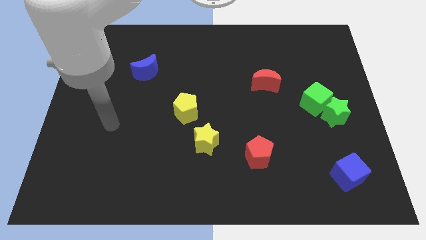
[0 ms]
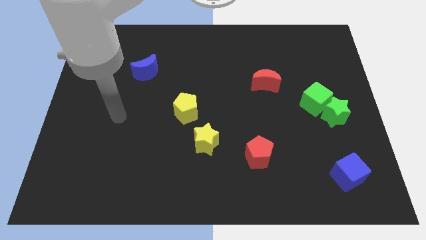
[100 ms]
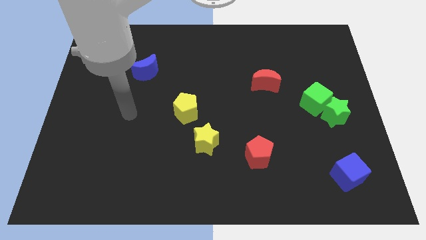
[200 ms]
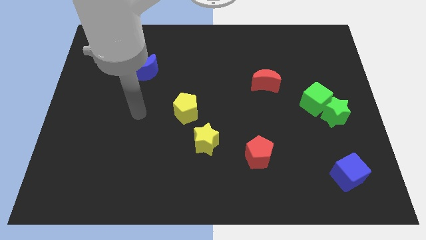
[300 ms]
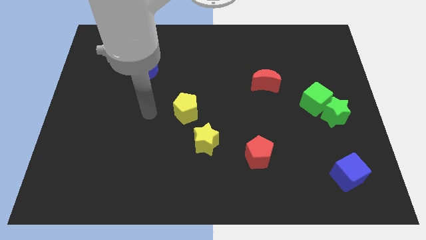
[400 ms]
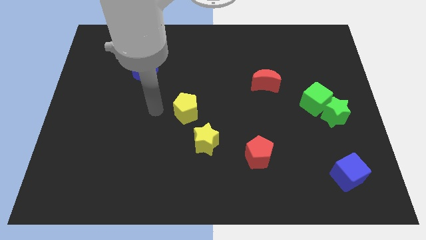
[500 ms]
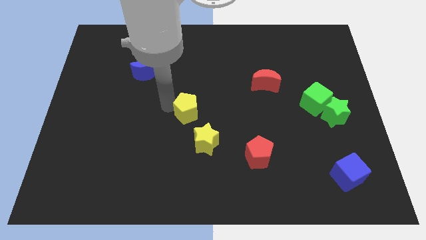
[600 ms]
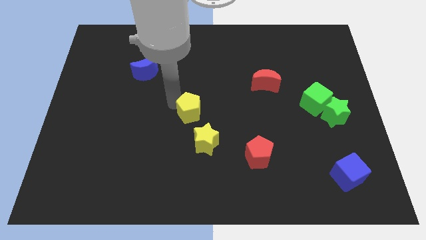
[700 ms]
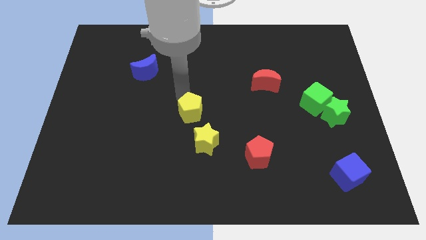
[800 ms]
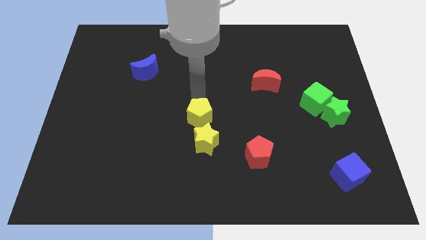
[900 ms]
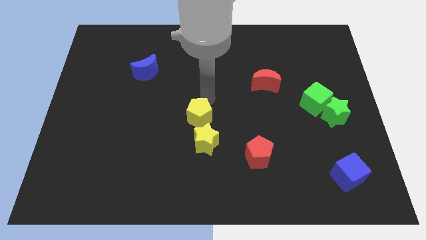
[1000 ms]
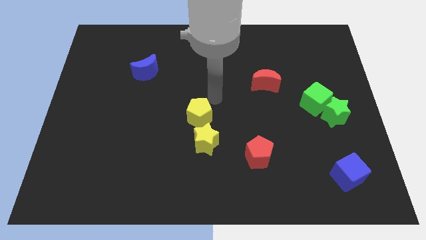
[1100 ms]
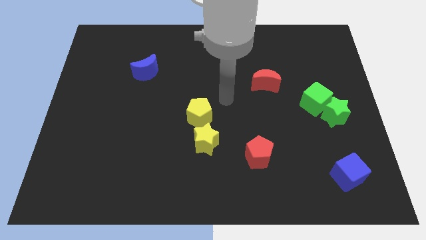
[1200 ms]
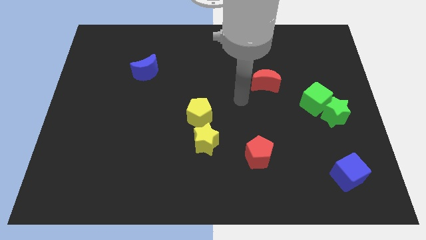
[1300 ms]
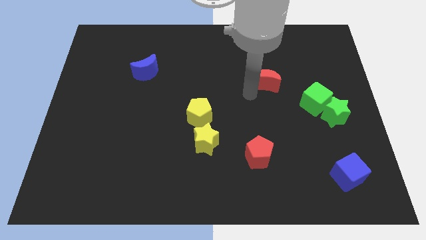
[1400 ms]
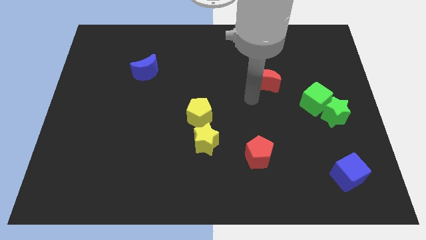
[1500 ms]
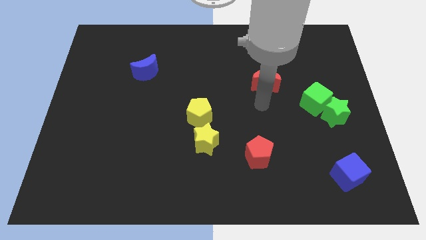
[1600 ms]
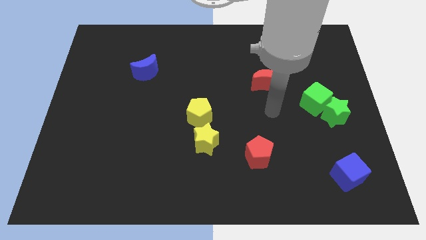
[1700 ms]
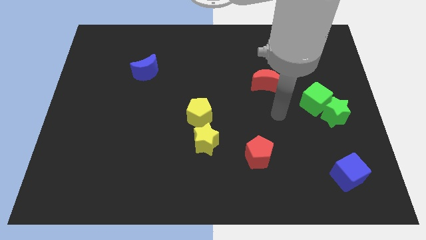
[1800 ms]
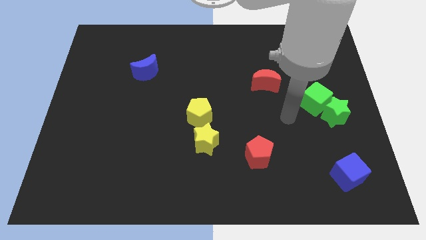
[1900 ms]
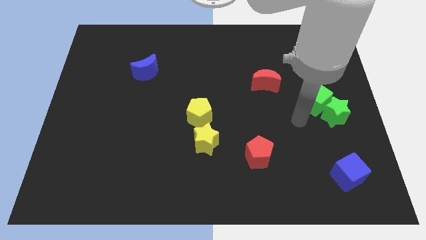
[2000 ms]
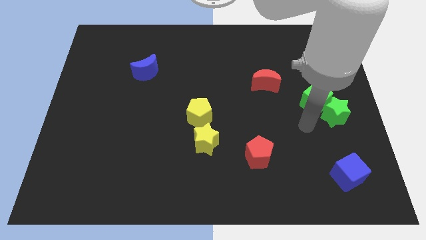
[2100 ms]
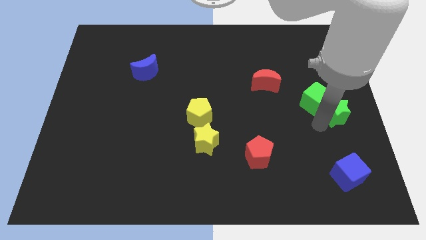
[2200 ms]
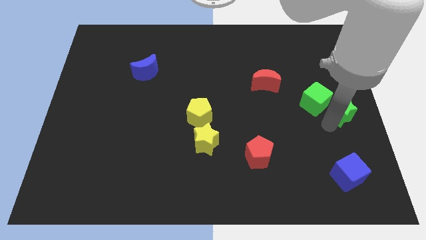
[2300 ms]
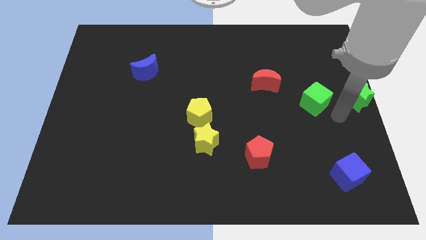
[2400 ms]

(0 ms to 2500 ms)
separate the green cube from the green star

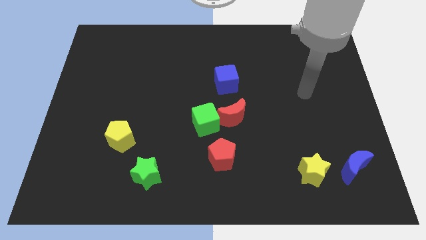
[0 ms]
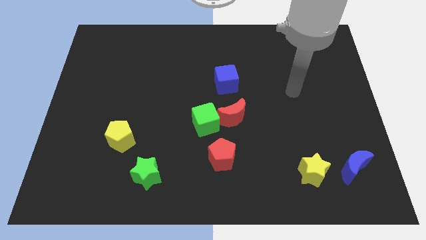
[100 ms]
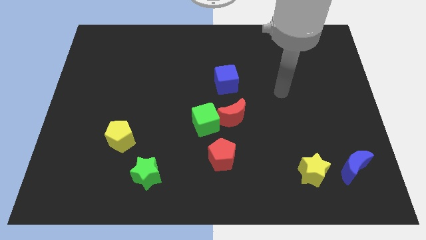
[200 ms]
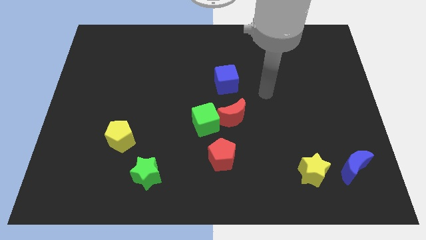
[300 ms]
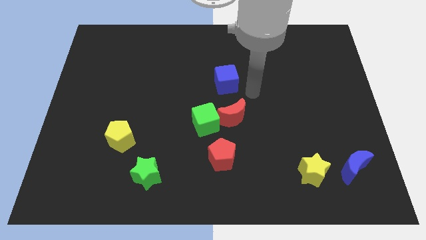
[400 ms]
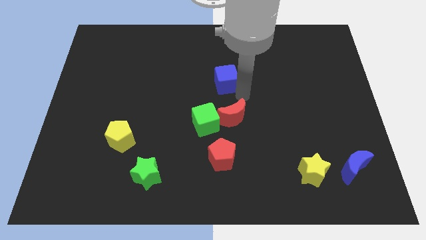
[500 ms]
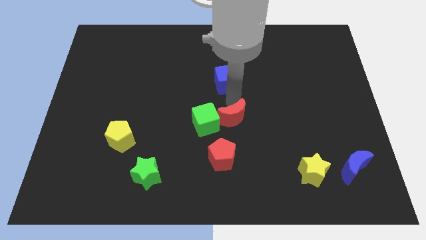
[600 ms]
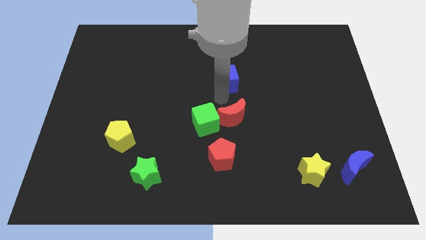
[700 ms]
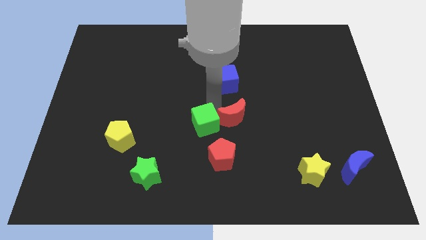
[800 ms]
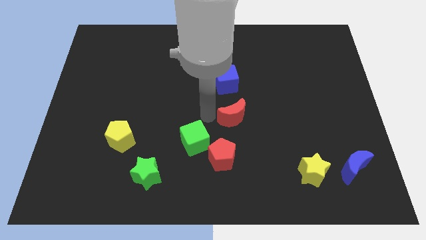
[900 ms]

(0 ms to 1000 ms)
pull the red moon apart from the green cube

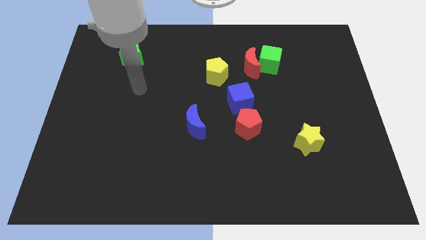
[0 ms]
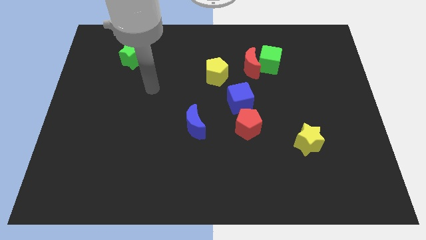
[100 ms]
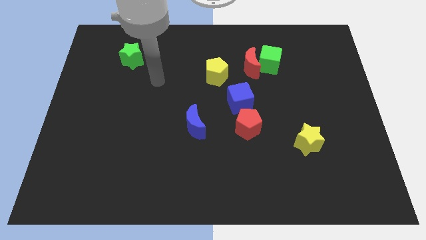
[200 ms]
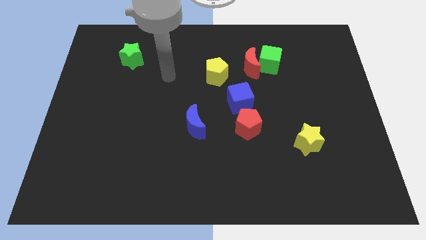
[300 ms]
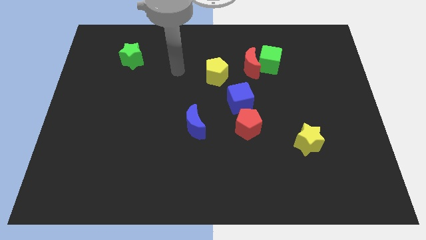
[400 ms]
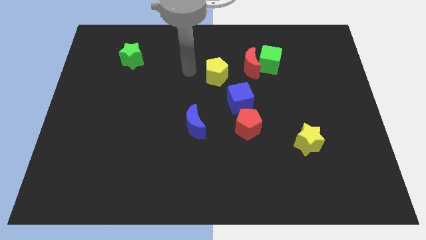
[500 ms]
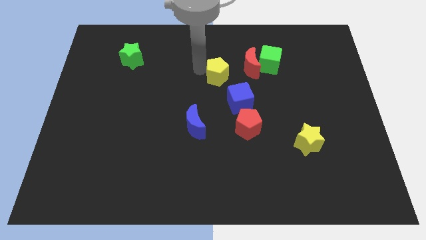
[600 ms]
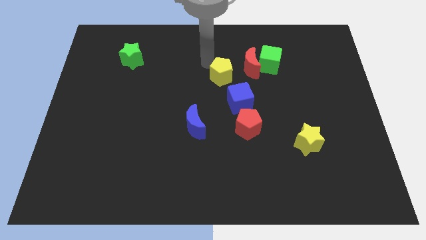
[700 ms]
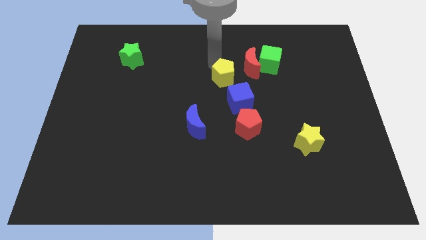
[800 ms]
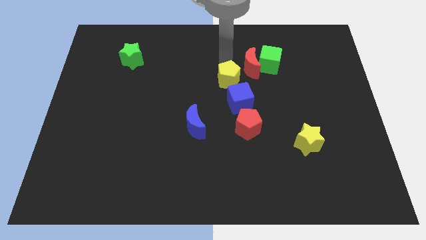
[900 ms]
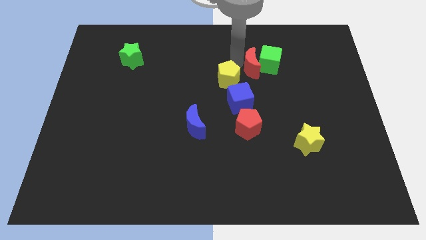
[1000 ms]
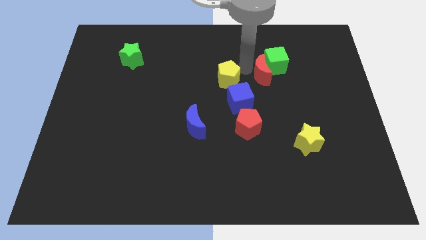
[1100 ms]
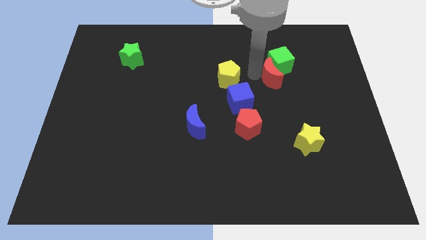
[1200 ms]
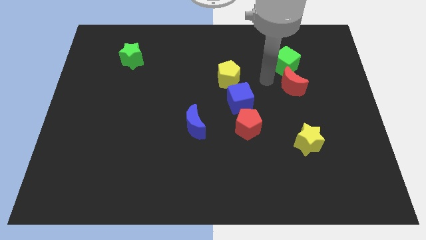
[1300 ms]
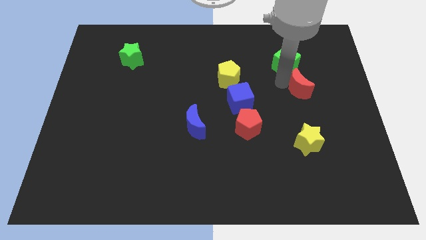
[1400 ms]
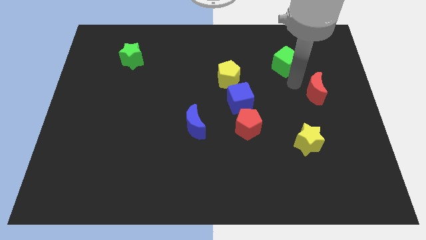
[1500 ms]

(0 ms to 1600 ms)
separate the green cube from the red moon

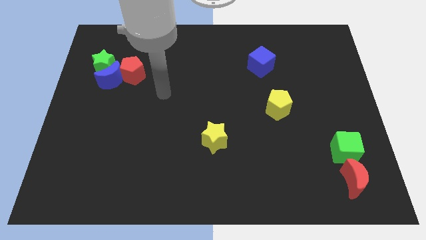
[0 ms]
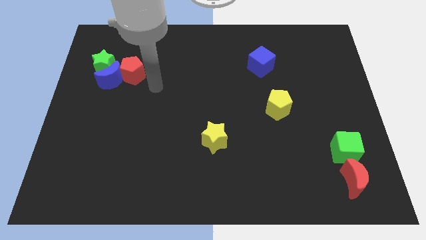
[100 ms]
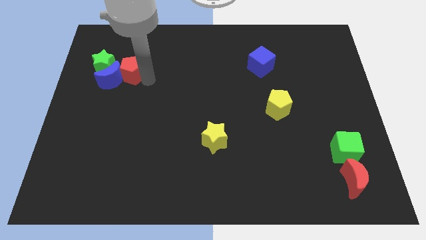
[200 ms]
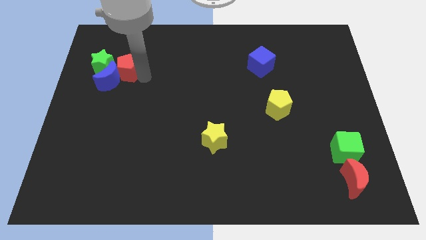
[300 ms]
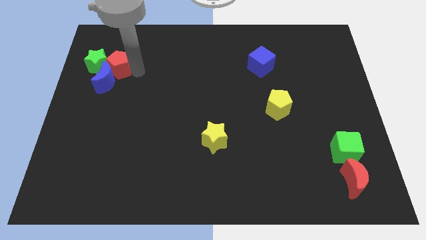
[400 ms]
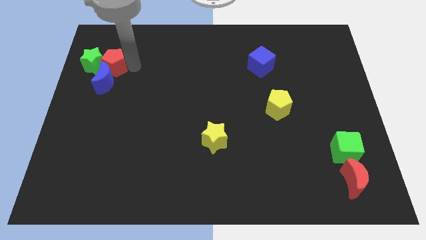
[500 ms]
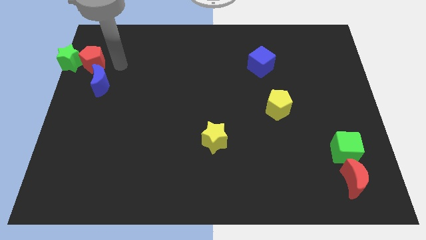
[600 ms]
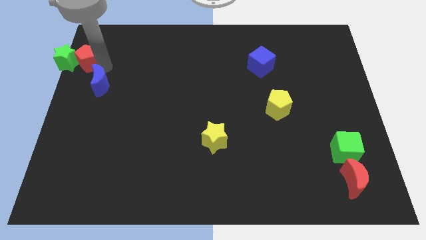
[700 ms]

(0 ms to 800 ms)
separate the blue moon from the green star and red pentagon

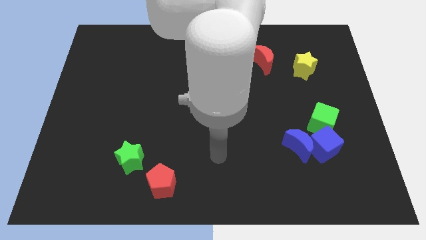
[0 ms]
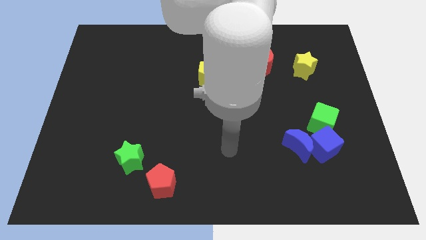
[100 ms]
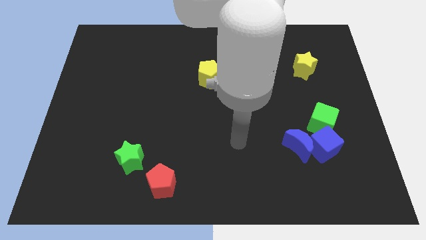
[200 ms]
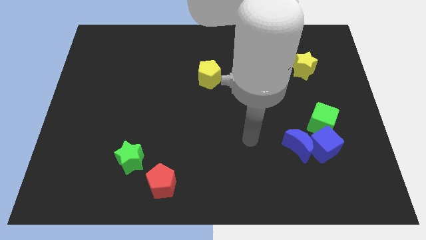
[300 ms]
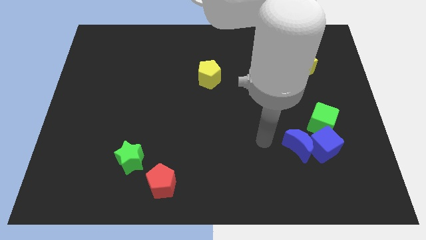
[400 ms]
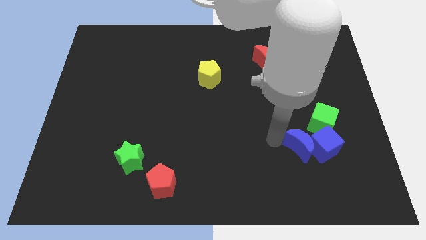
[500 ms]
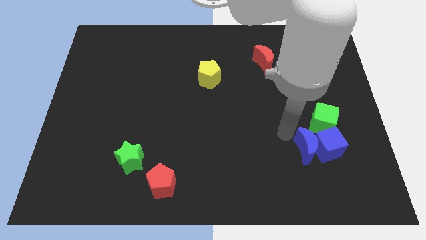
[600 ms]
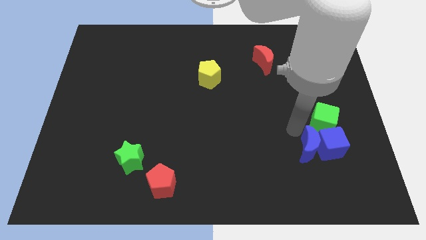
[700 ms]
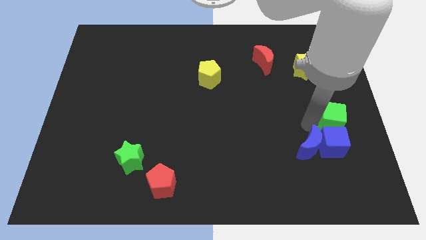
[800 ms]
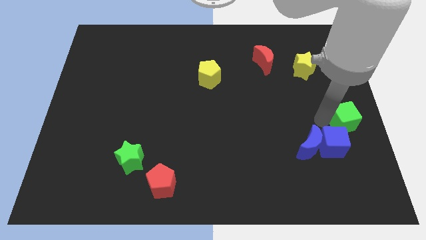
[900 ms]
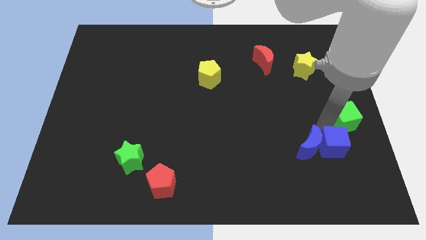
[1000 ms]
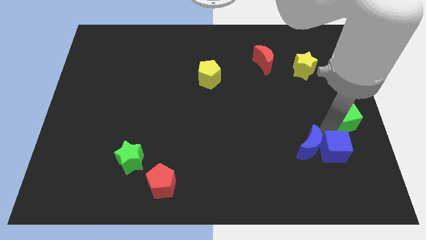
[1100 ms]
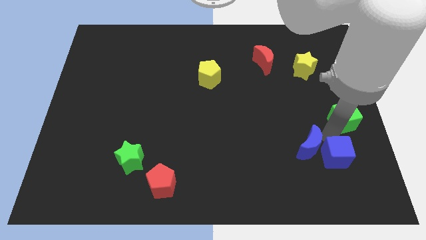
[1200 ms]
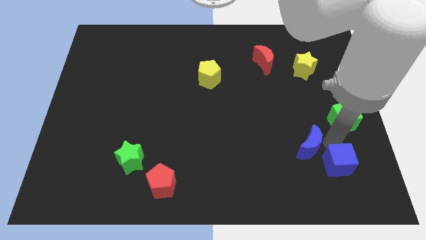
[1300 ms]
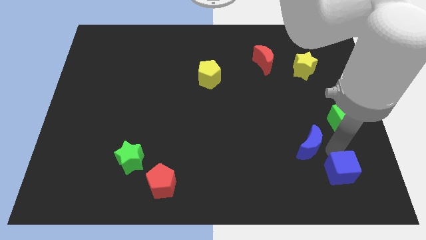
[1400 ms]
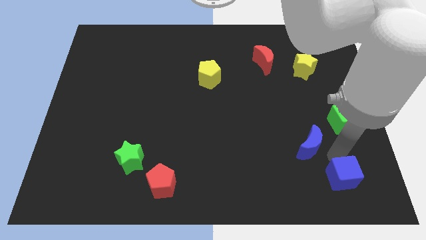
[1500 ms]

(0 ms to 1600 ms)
pull the blue cube apart from the blue moon and green cube

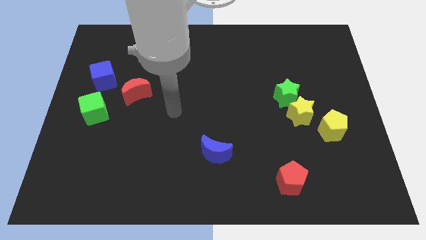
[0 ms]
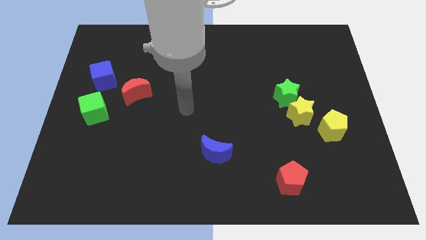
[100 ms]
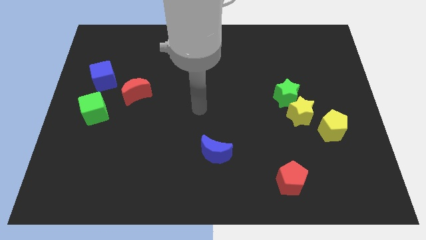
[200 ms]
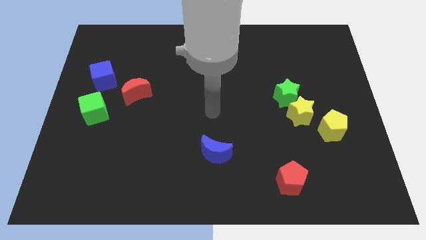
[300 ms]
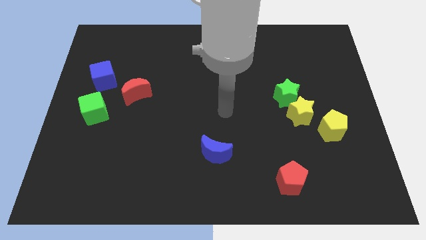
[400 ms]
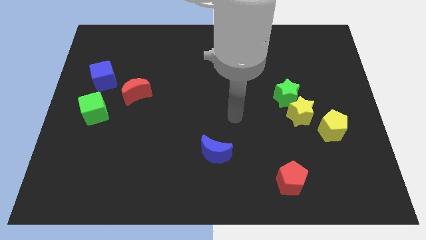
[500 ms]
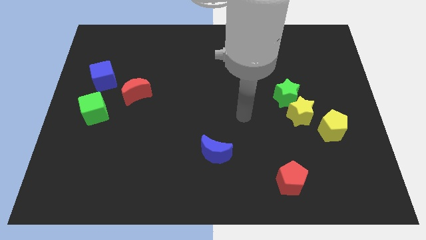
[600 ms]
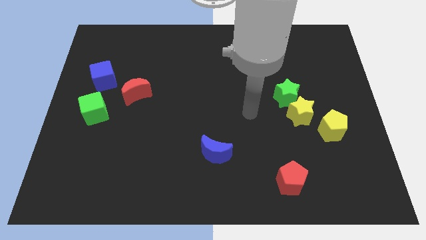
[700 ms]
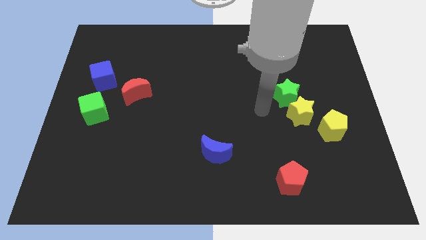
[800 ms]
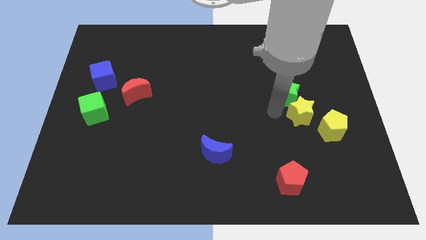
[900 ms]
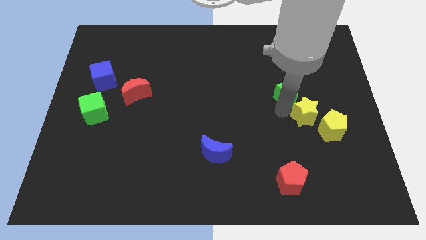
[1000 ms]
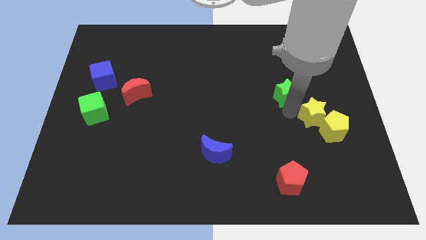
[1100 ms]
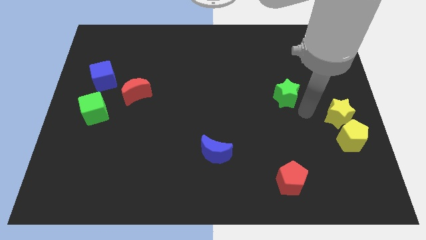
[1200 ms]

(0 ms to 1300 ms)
move the green star away from the yellow star

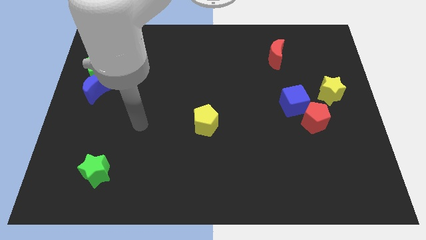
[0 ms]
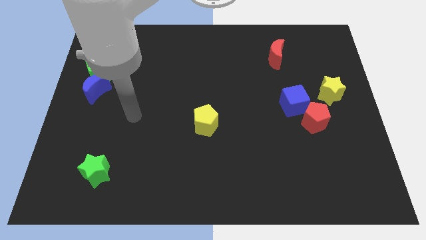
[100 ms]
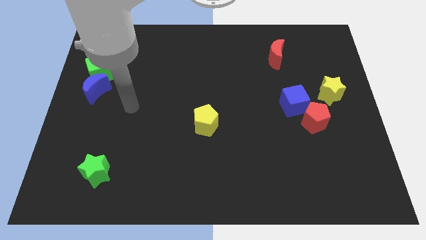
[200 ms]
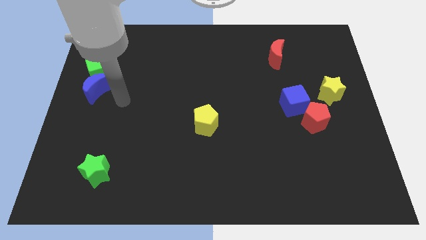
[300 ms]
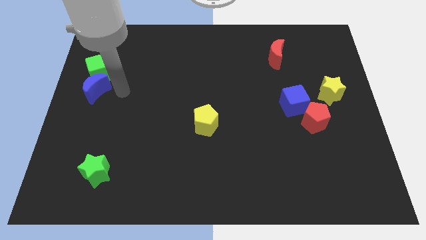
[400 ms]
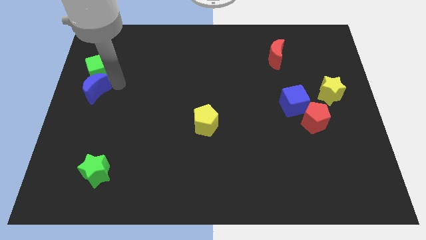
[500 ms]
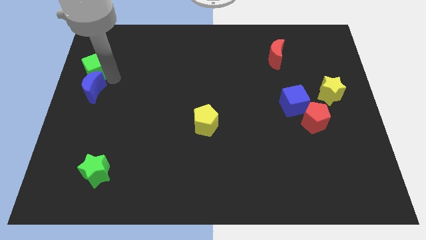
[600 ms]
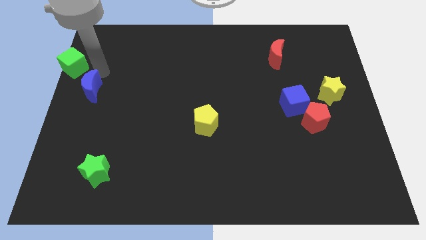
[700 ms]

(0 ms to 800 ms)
pull the blue moon apart from the green cube
